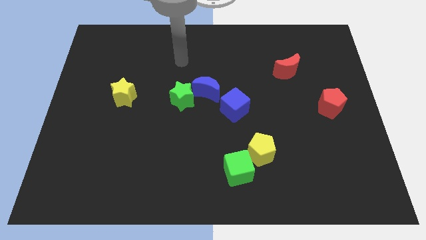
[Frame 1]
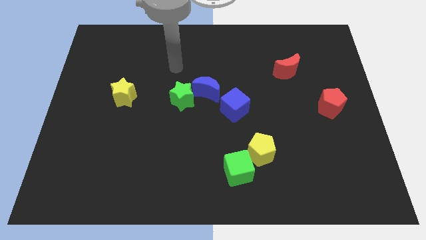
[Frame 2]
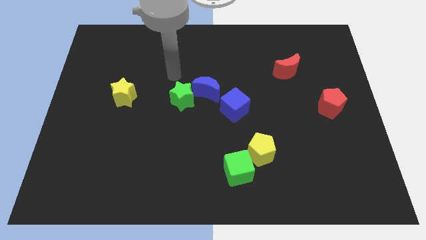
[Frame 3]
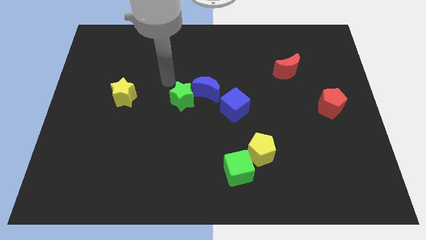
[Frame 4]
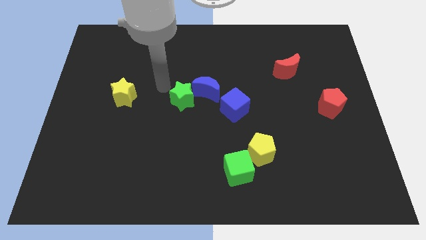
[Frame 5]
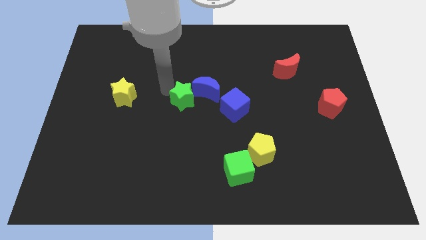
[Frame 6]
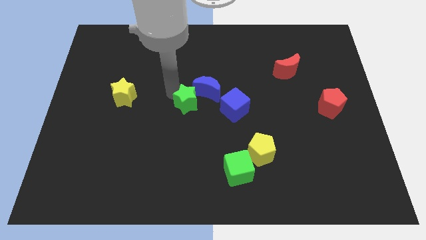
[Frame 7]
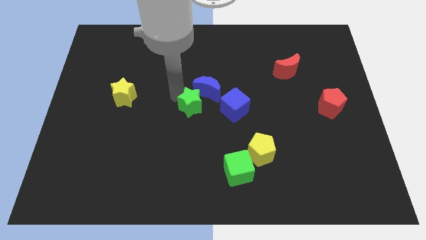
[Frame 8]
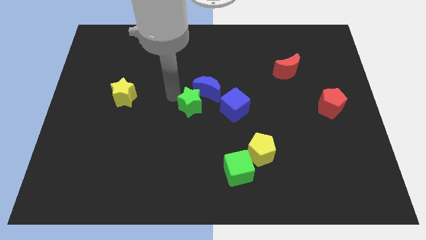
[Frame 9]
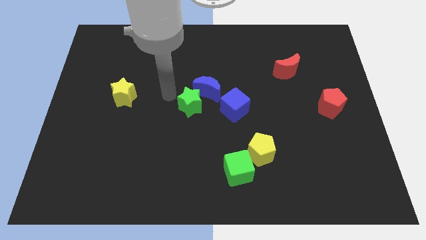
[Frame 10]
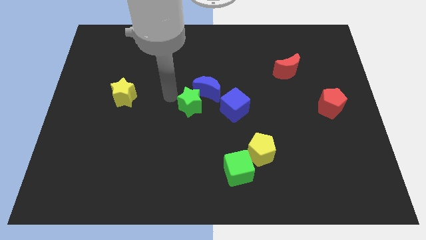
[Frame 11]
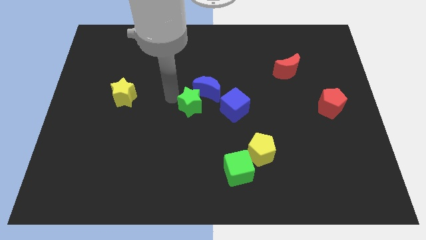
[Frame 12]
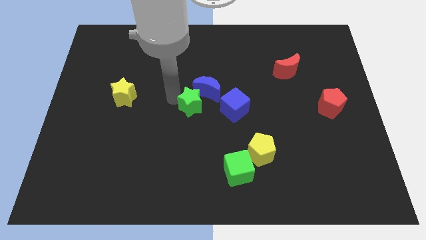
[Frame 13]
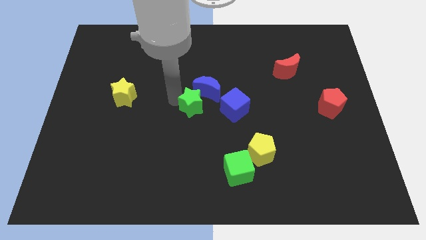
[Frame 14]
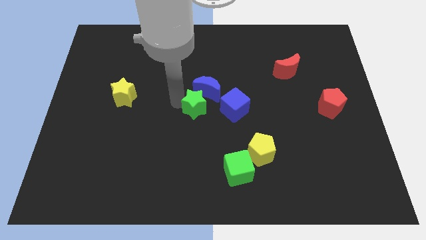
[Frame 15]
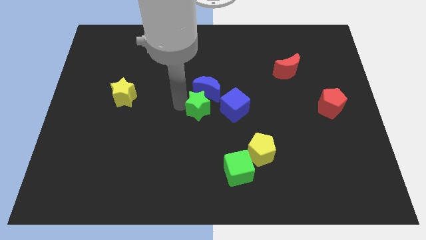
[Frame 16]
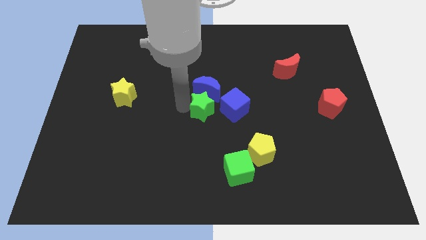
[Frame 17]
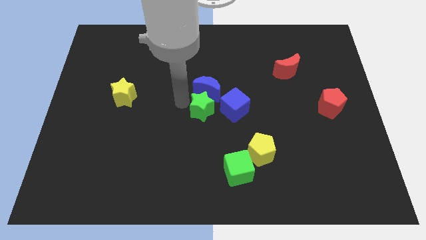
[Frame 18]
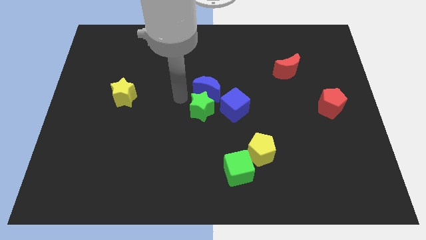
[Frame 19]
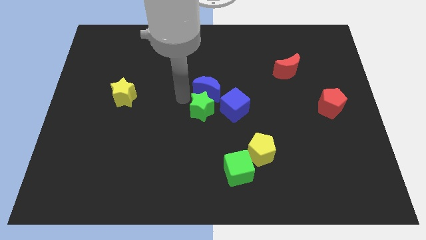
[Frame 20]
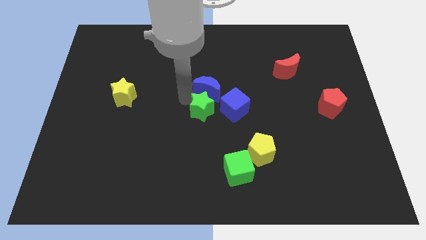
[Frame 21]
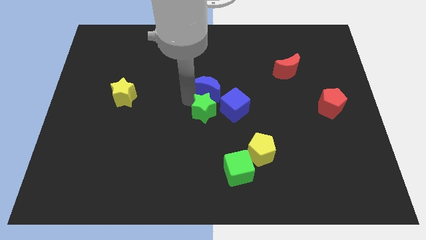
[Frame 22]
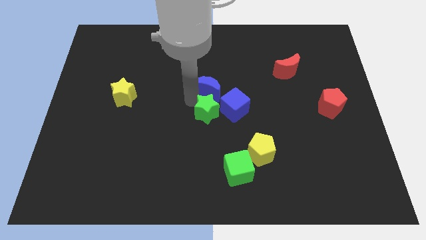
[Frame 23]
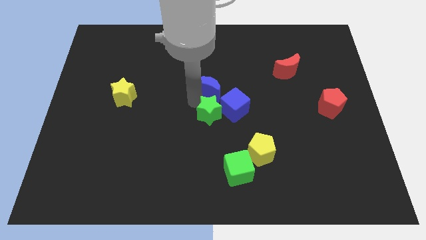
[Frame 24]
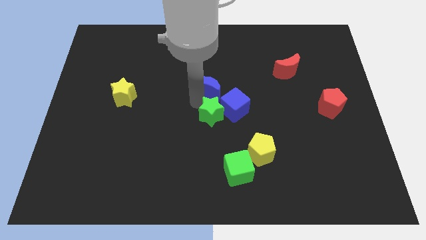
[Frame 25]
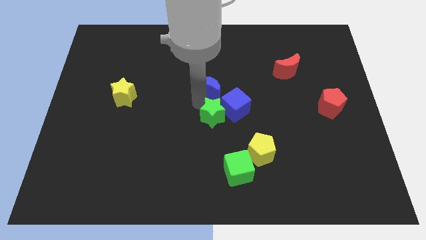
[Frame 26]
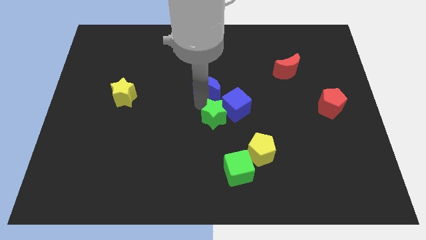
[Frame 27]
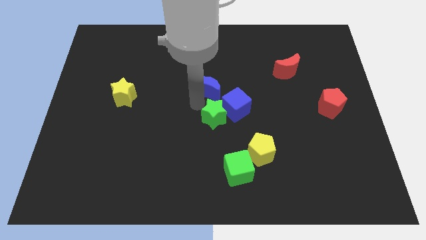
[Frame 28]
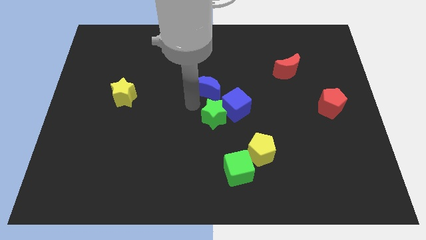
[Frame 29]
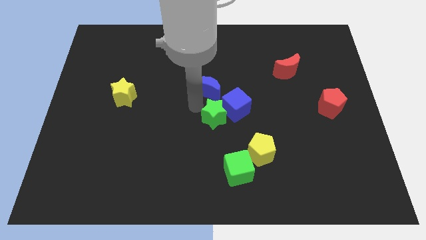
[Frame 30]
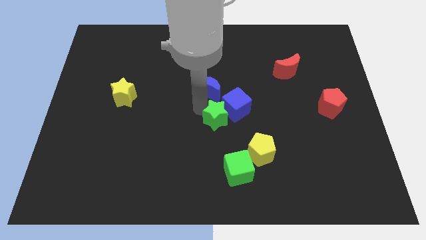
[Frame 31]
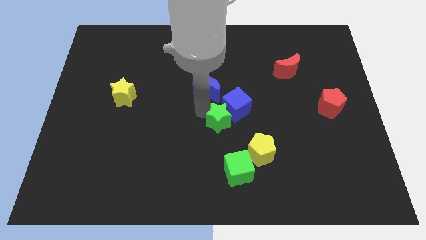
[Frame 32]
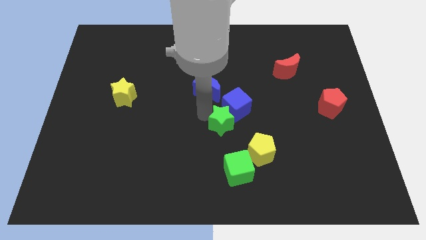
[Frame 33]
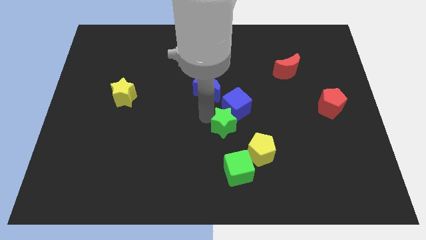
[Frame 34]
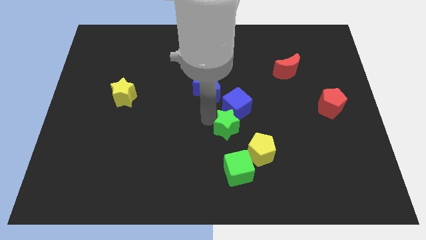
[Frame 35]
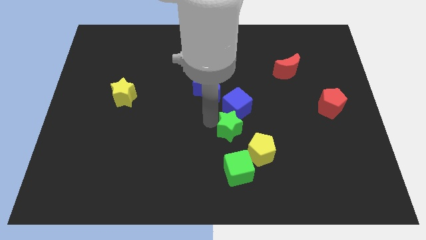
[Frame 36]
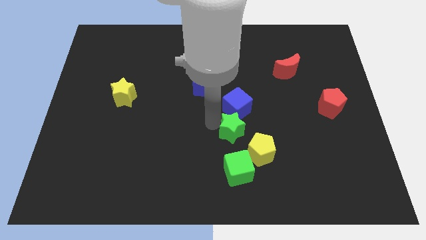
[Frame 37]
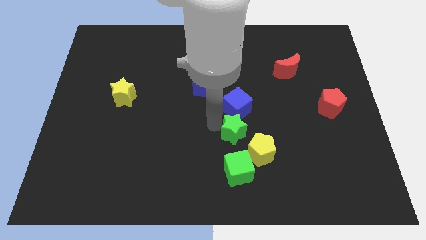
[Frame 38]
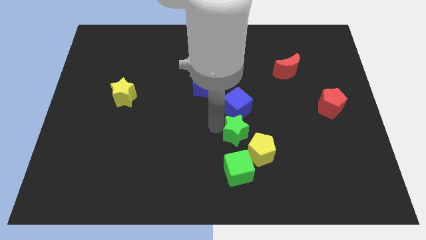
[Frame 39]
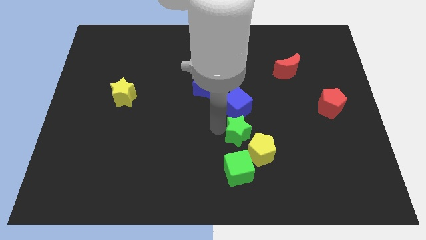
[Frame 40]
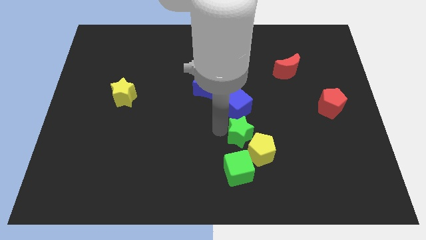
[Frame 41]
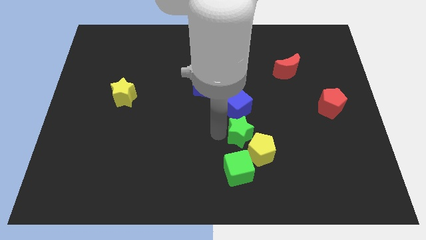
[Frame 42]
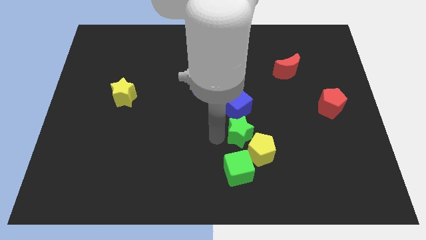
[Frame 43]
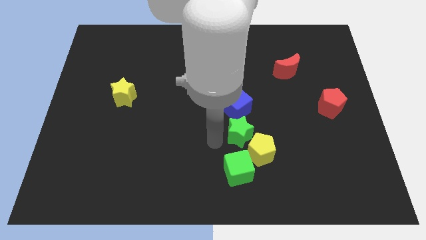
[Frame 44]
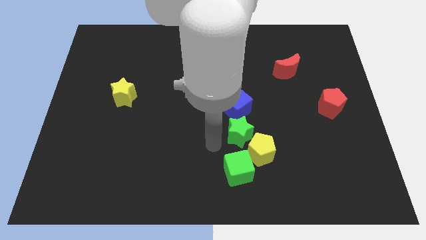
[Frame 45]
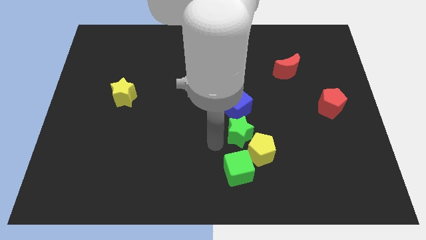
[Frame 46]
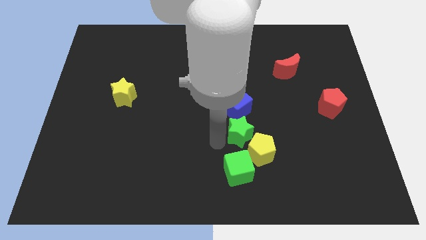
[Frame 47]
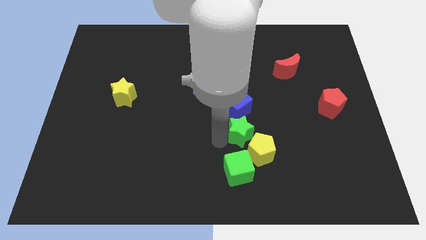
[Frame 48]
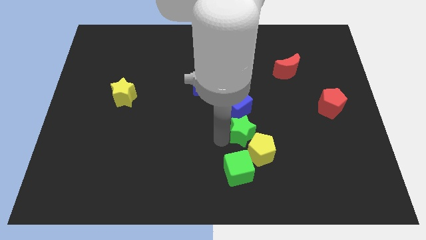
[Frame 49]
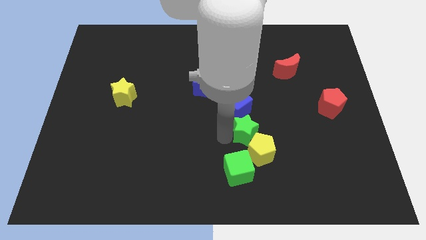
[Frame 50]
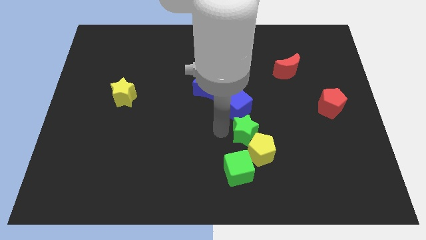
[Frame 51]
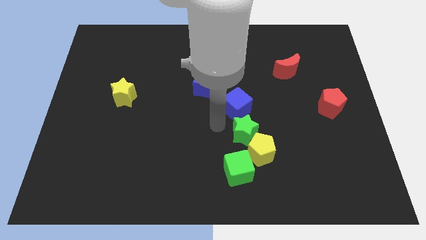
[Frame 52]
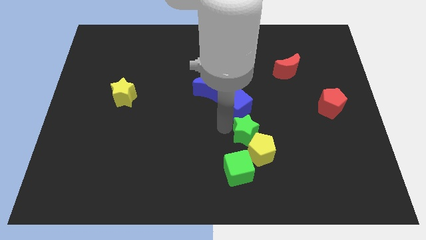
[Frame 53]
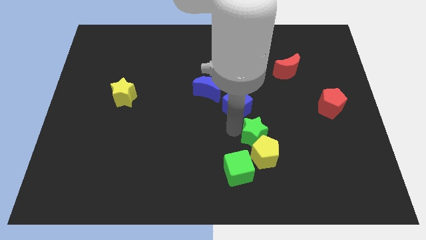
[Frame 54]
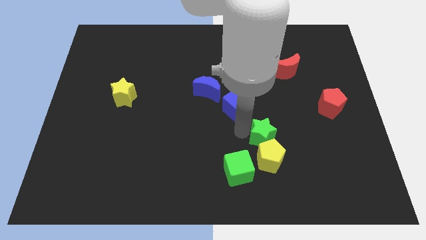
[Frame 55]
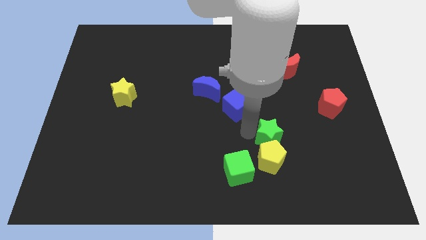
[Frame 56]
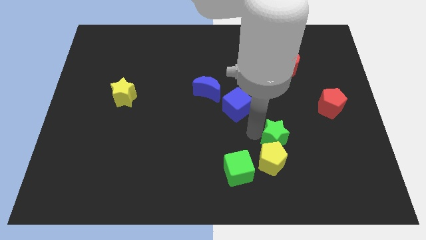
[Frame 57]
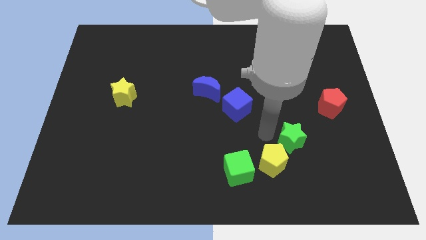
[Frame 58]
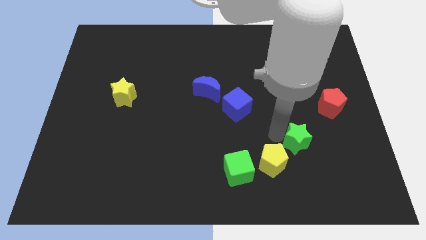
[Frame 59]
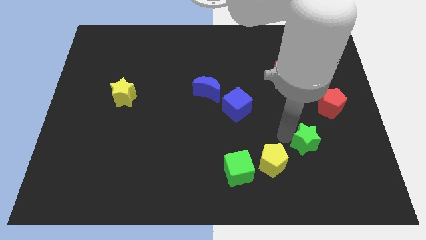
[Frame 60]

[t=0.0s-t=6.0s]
put the green star right of the yellow pentagon

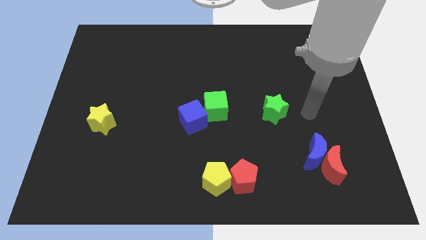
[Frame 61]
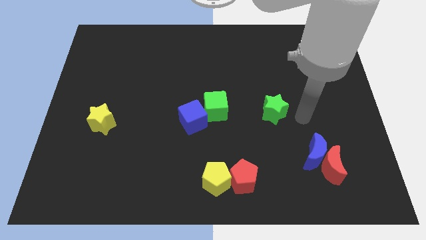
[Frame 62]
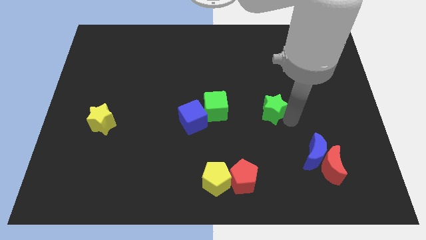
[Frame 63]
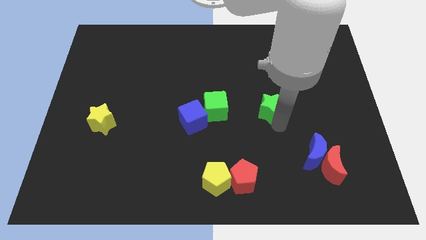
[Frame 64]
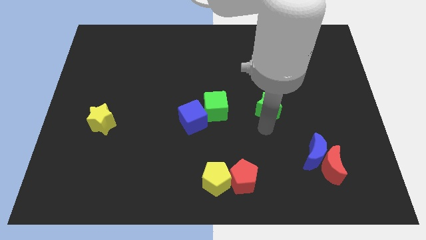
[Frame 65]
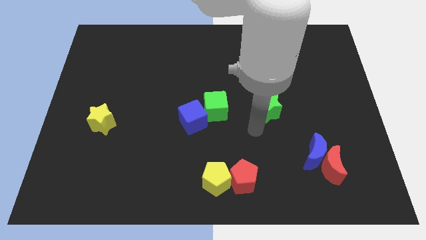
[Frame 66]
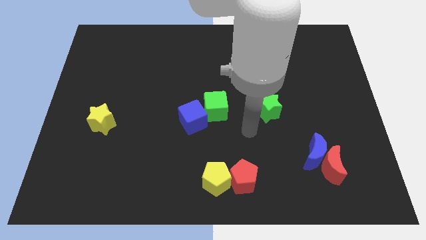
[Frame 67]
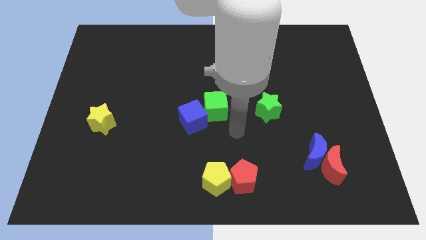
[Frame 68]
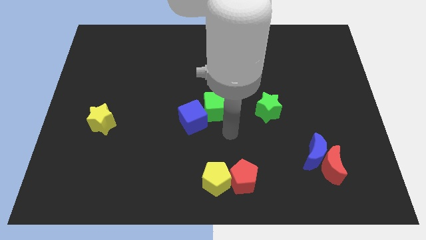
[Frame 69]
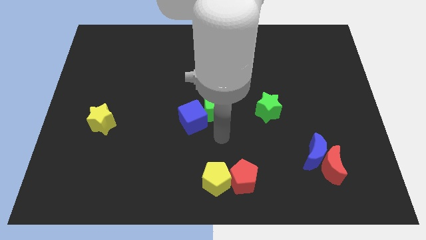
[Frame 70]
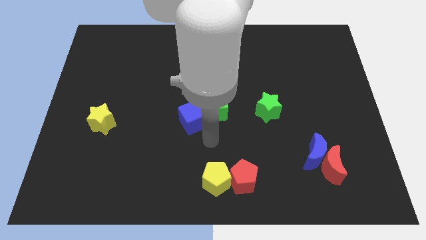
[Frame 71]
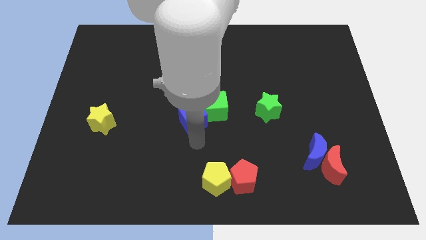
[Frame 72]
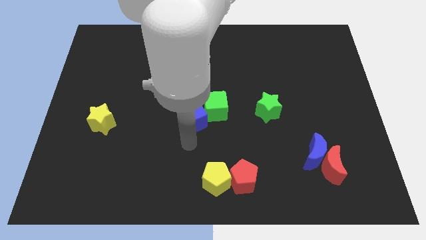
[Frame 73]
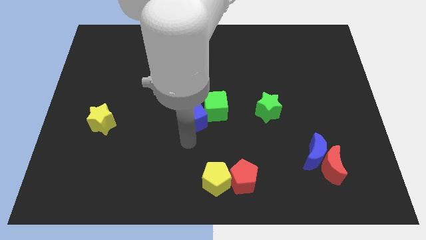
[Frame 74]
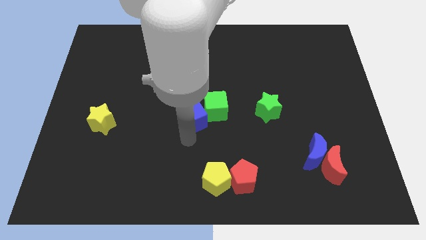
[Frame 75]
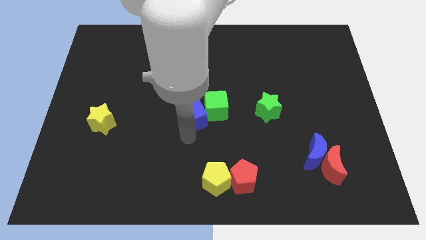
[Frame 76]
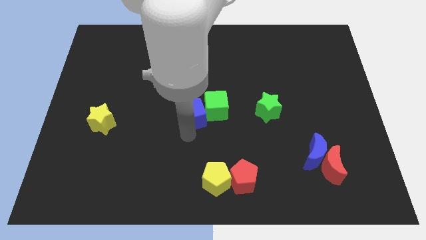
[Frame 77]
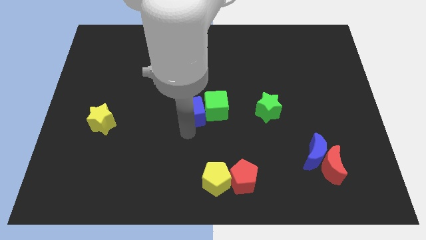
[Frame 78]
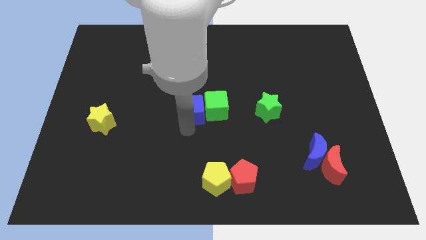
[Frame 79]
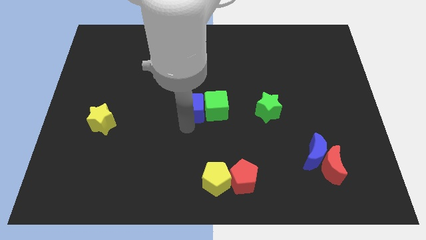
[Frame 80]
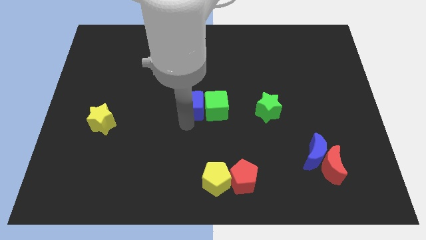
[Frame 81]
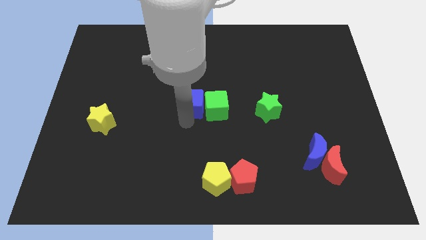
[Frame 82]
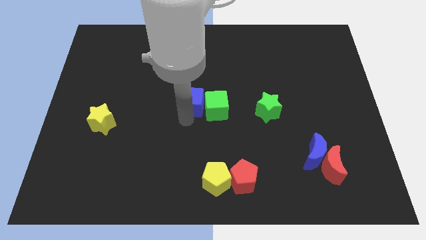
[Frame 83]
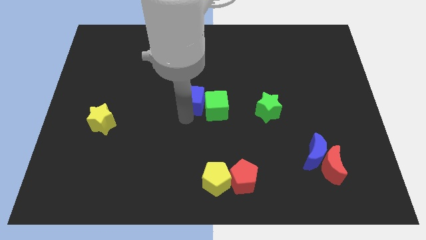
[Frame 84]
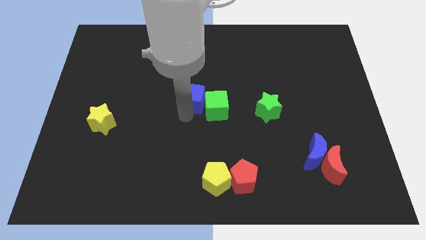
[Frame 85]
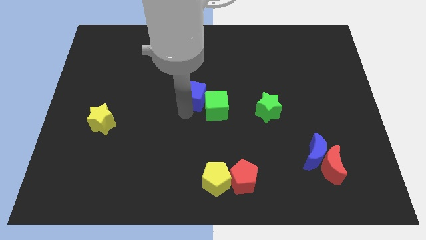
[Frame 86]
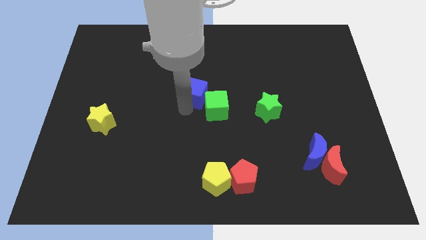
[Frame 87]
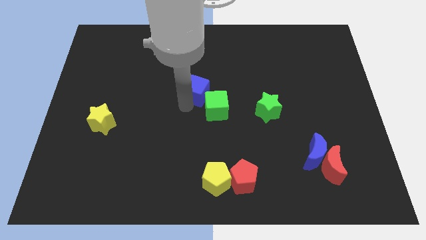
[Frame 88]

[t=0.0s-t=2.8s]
push the blue cube to the top side of the green cube
